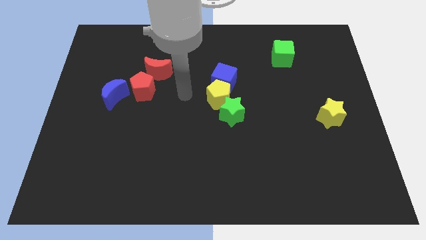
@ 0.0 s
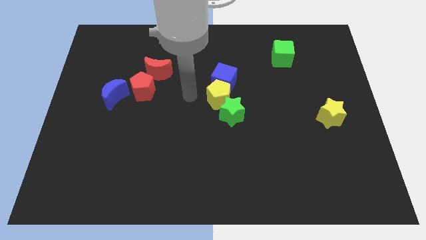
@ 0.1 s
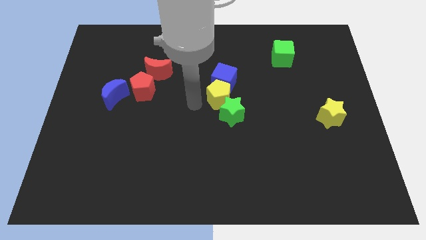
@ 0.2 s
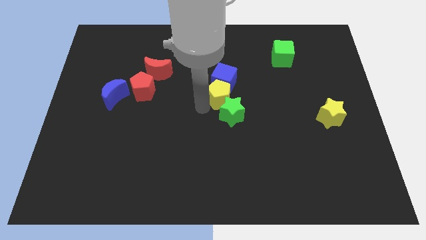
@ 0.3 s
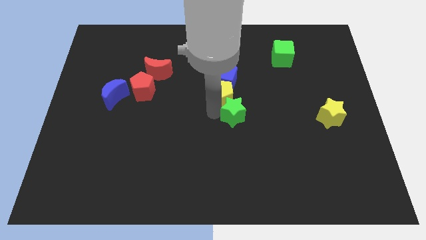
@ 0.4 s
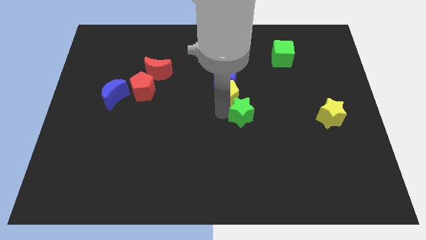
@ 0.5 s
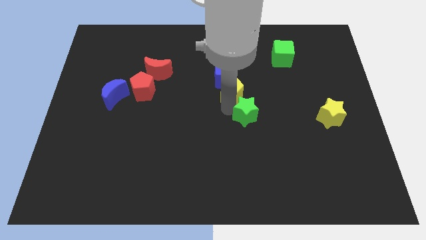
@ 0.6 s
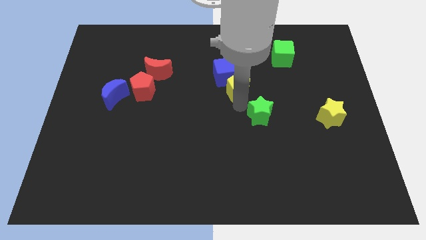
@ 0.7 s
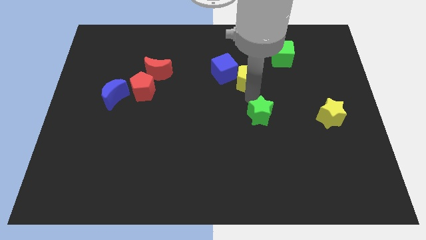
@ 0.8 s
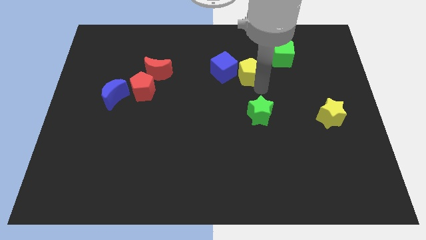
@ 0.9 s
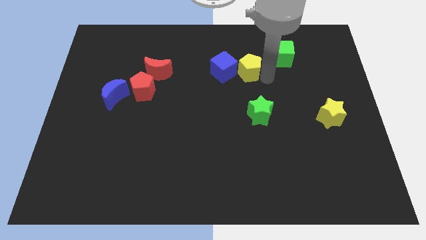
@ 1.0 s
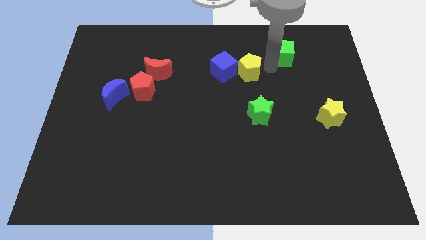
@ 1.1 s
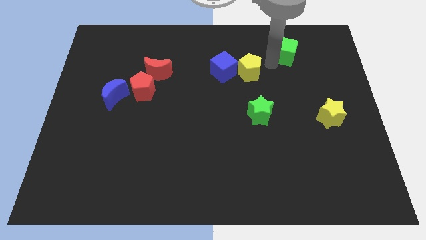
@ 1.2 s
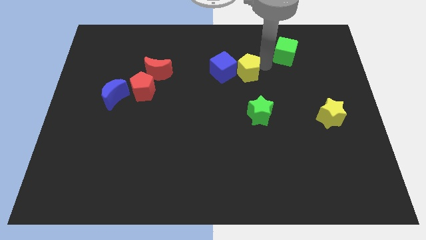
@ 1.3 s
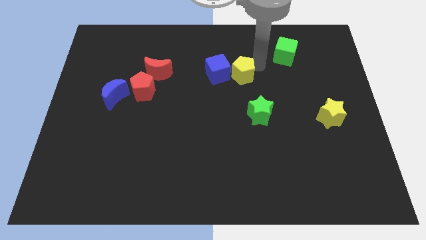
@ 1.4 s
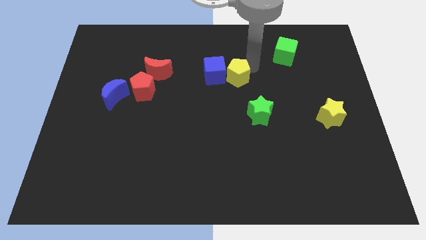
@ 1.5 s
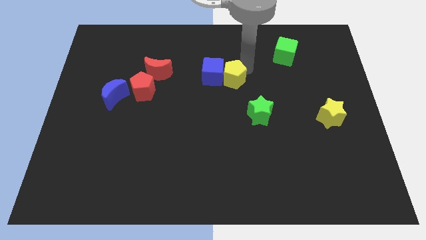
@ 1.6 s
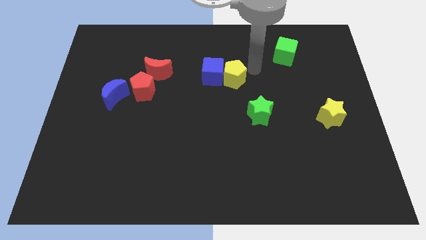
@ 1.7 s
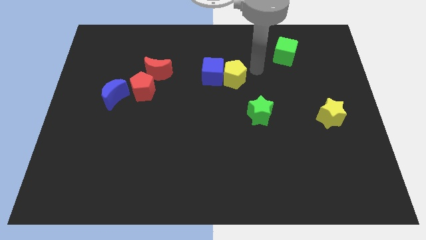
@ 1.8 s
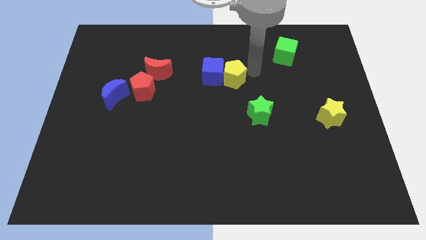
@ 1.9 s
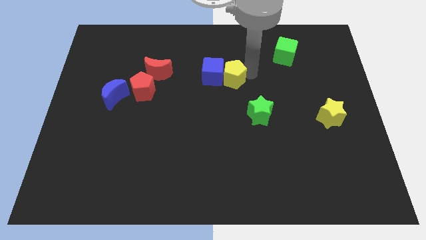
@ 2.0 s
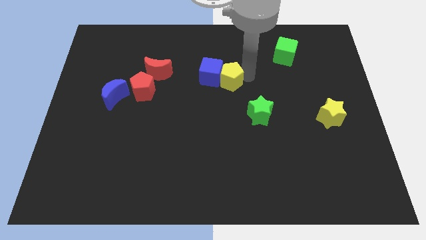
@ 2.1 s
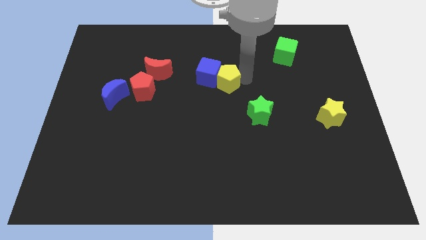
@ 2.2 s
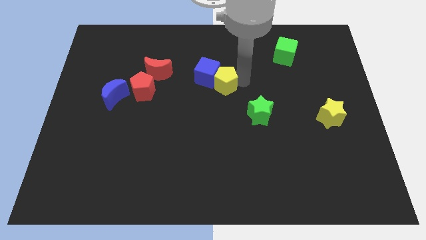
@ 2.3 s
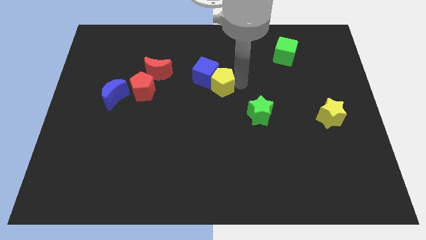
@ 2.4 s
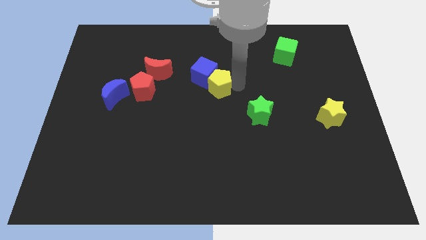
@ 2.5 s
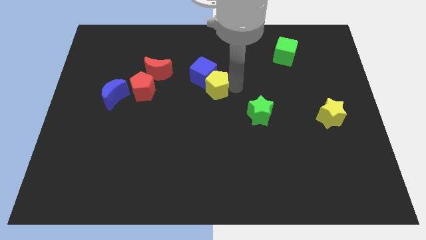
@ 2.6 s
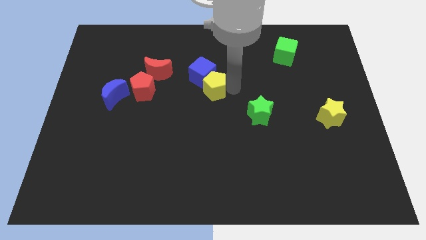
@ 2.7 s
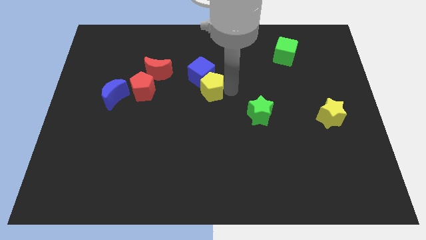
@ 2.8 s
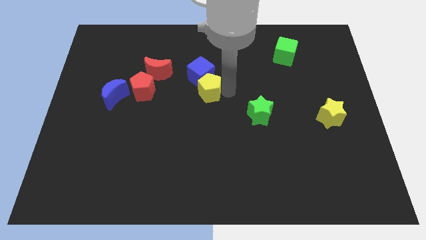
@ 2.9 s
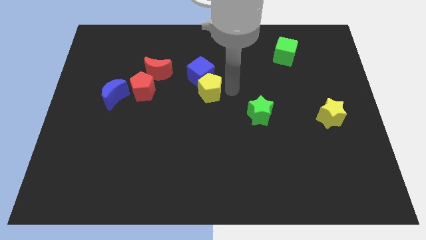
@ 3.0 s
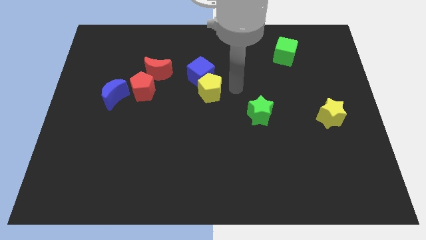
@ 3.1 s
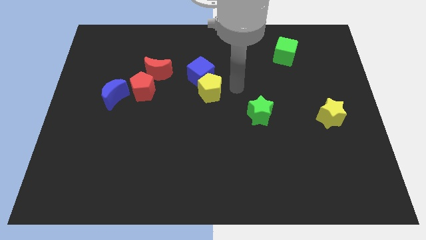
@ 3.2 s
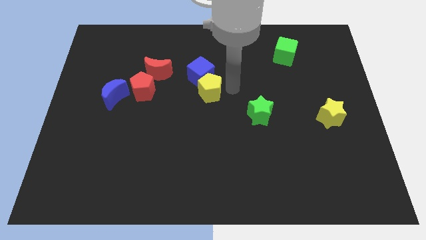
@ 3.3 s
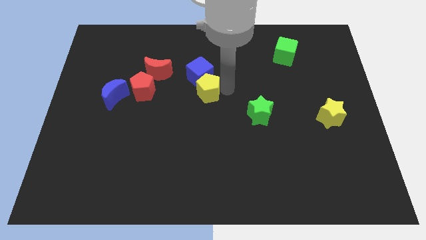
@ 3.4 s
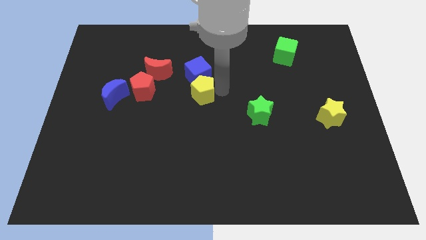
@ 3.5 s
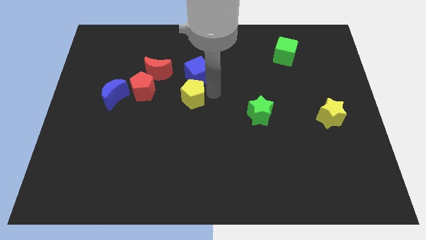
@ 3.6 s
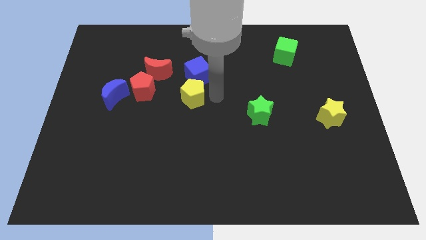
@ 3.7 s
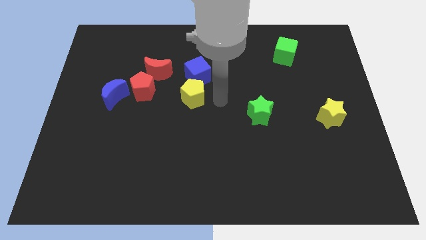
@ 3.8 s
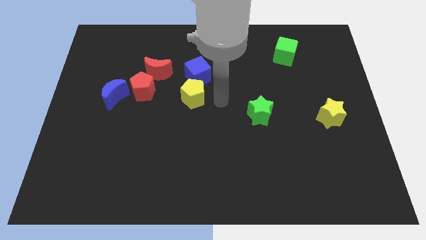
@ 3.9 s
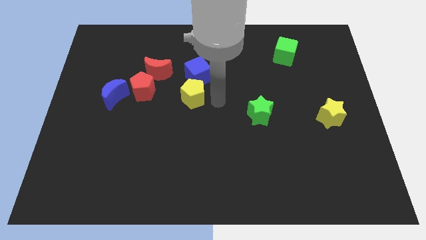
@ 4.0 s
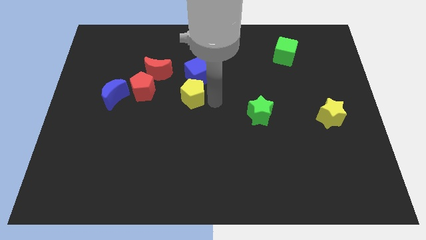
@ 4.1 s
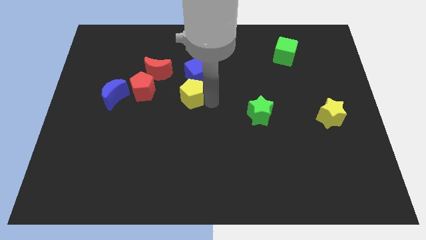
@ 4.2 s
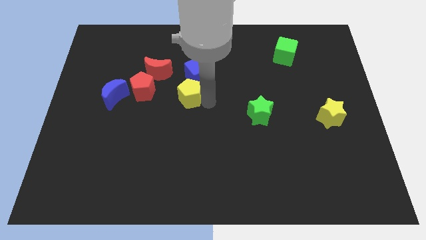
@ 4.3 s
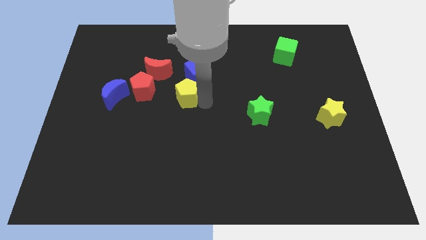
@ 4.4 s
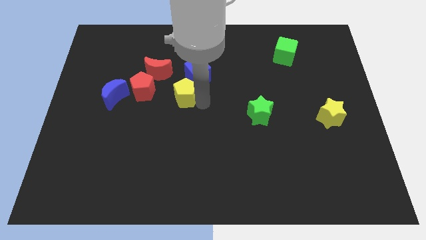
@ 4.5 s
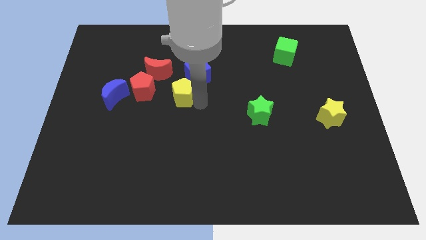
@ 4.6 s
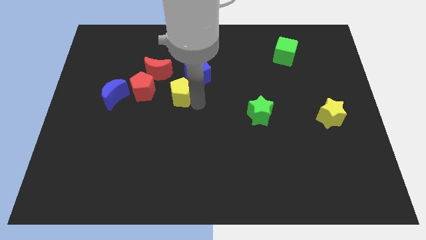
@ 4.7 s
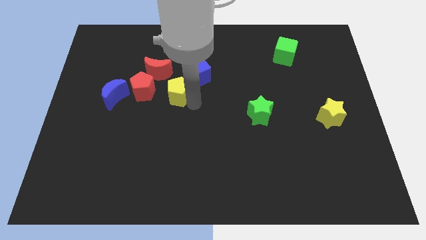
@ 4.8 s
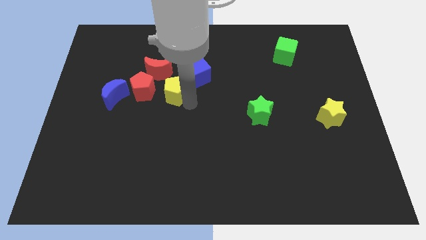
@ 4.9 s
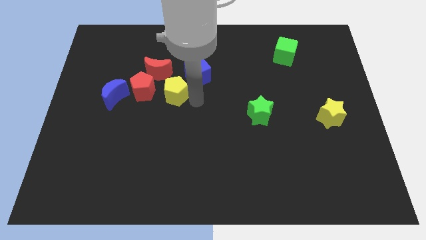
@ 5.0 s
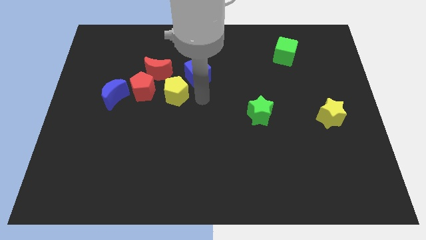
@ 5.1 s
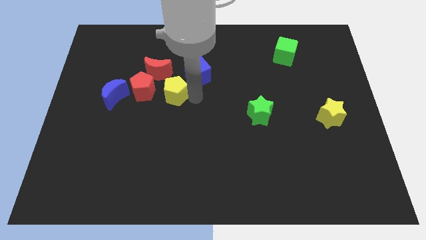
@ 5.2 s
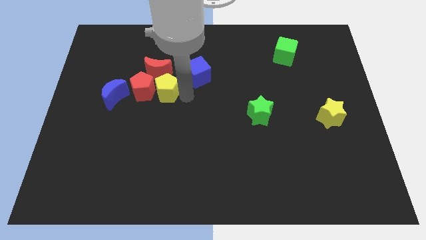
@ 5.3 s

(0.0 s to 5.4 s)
move the yellow pentagon to the red pentagon

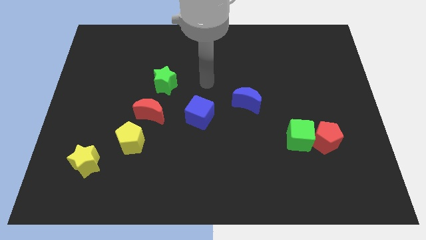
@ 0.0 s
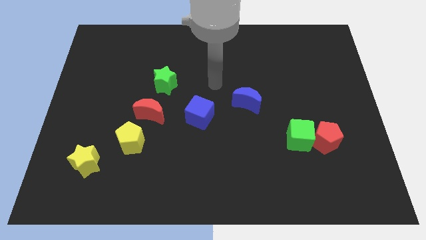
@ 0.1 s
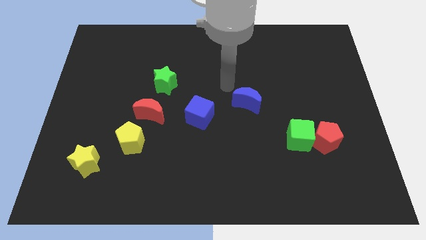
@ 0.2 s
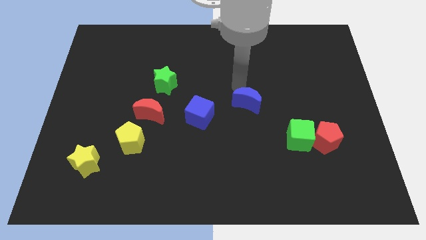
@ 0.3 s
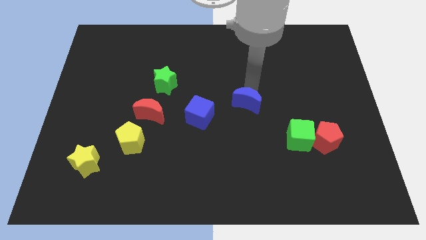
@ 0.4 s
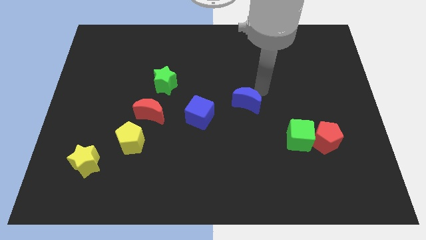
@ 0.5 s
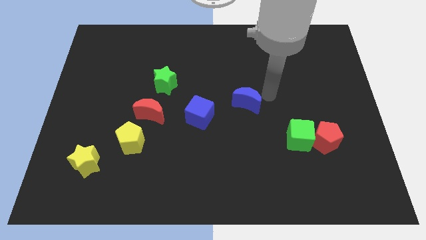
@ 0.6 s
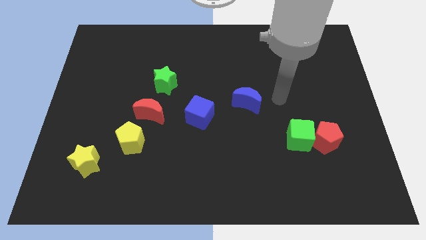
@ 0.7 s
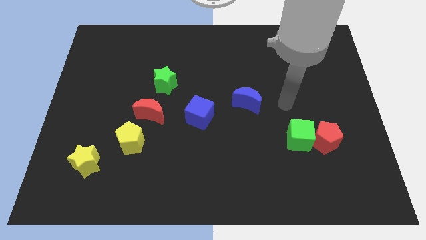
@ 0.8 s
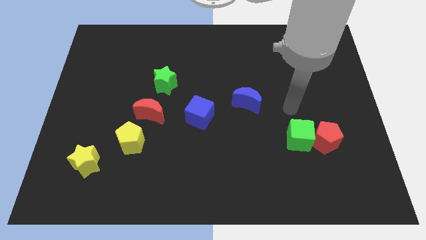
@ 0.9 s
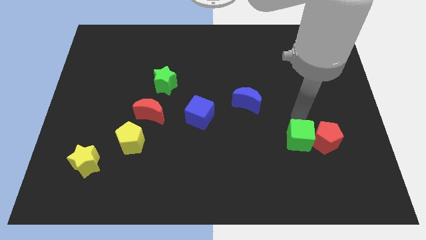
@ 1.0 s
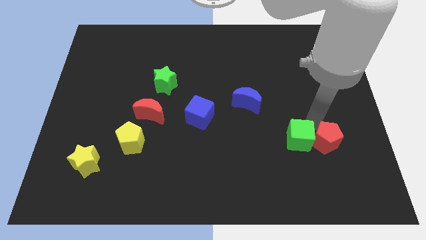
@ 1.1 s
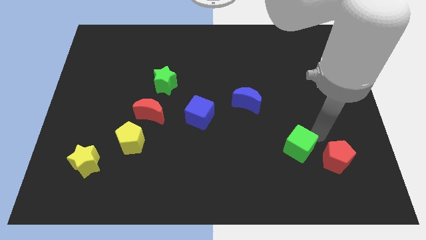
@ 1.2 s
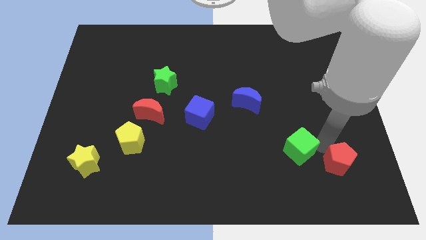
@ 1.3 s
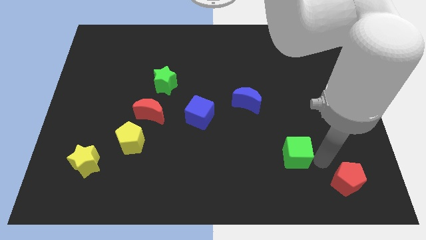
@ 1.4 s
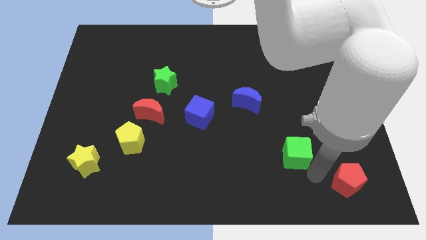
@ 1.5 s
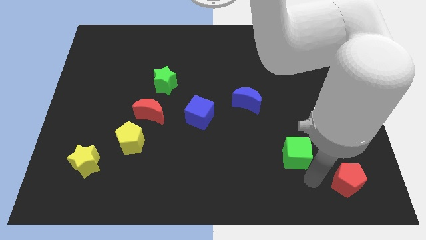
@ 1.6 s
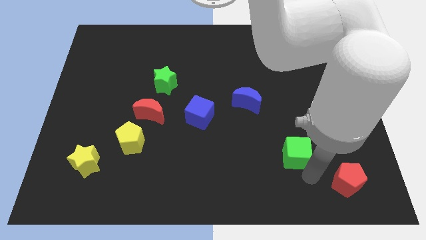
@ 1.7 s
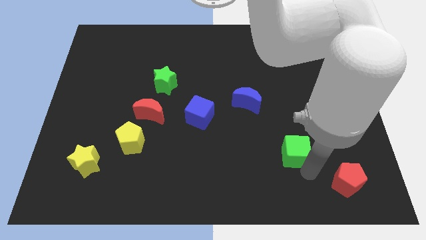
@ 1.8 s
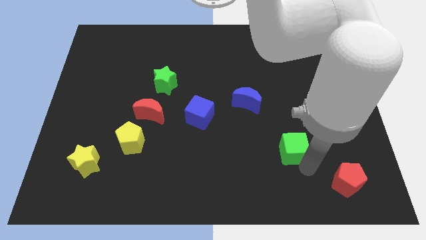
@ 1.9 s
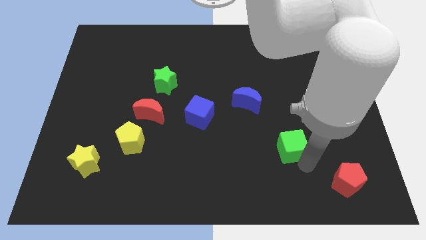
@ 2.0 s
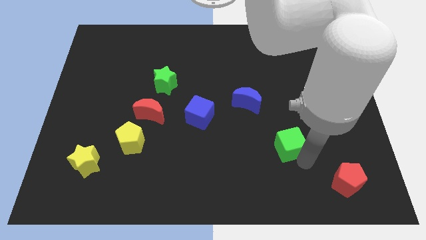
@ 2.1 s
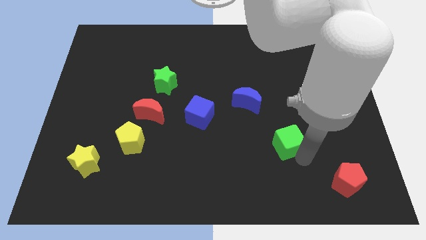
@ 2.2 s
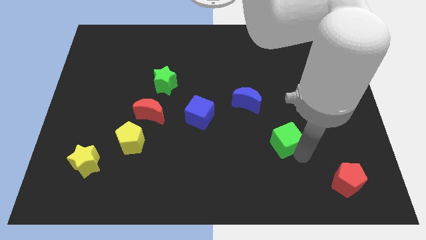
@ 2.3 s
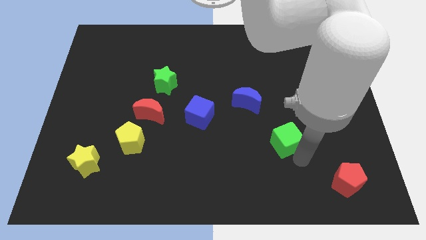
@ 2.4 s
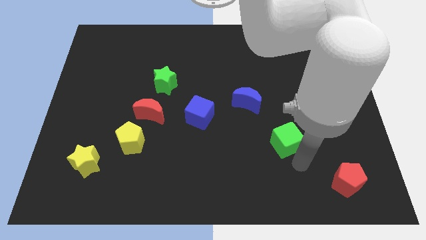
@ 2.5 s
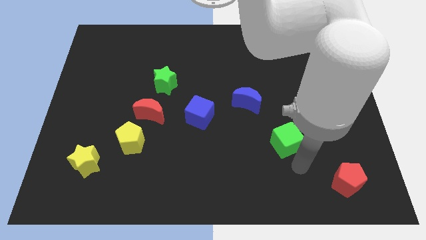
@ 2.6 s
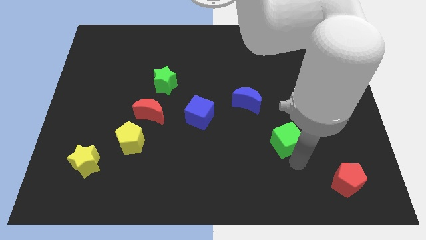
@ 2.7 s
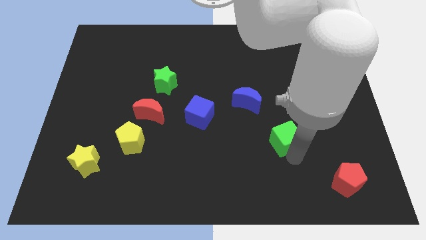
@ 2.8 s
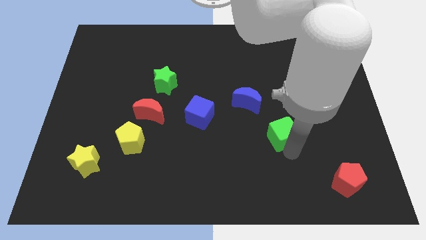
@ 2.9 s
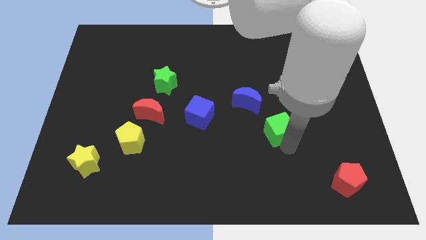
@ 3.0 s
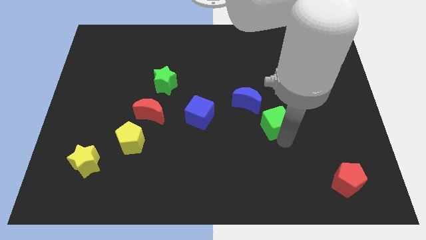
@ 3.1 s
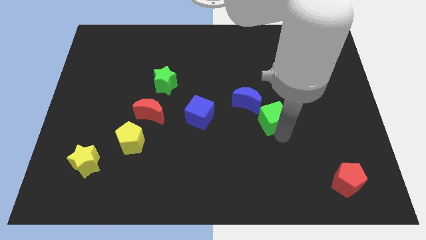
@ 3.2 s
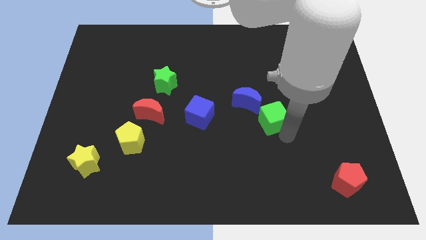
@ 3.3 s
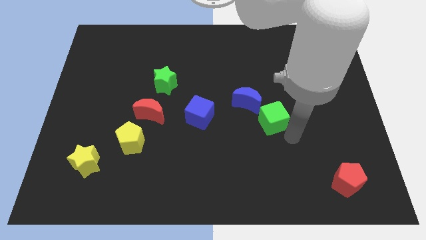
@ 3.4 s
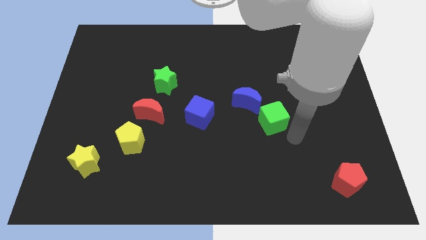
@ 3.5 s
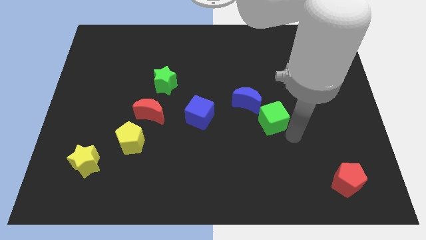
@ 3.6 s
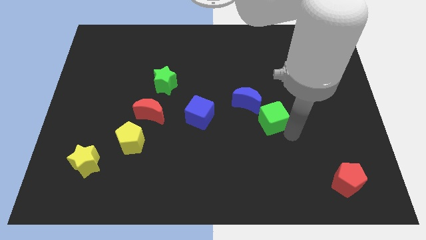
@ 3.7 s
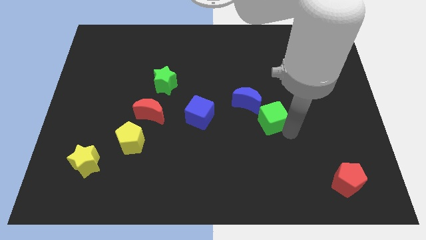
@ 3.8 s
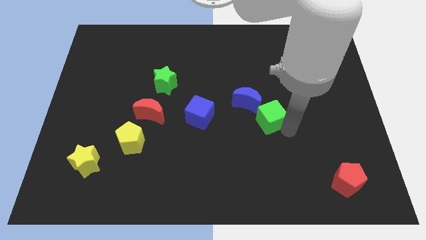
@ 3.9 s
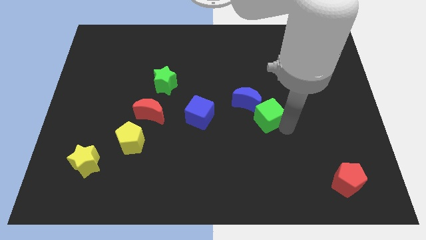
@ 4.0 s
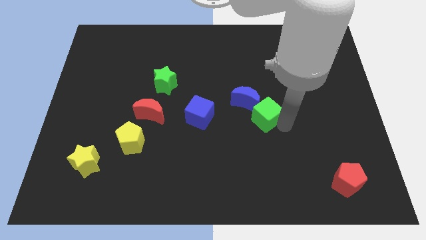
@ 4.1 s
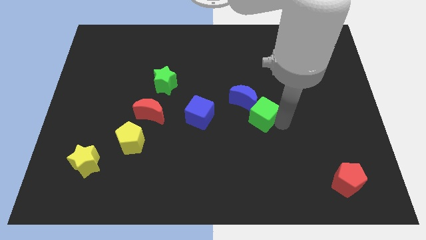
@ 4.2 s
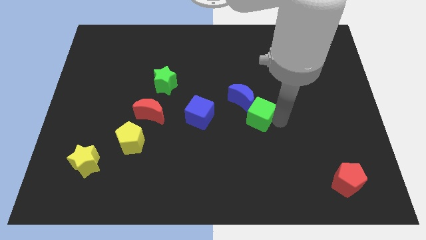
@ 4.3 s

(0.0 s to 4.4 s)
slide the green cube close to the blue moon
